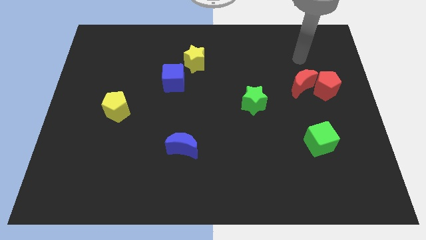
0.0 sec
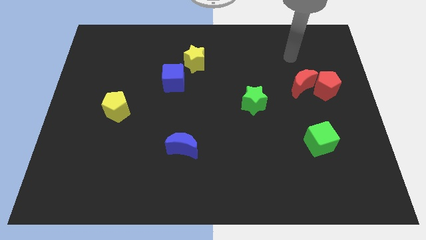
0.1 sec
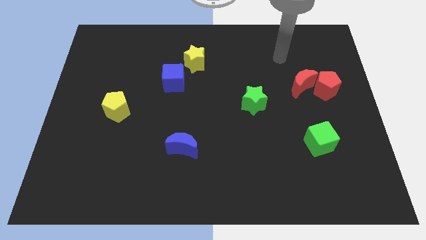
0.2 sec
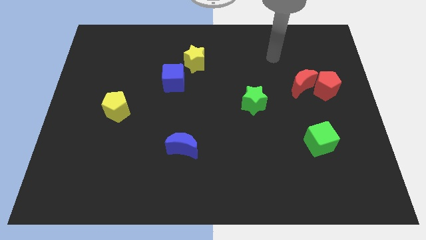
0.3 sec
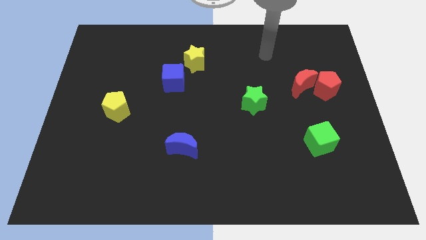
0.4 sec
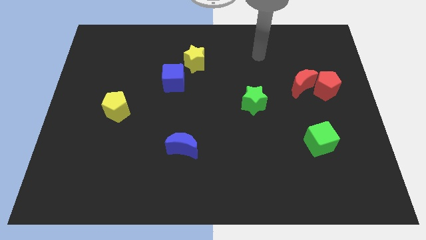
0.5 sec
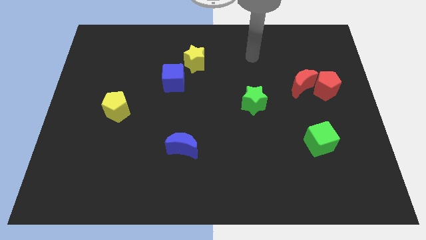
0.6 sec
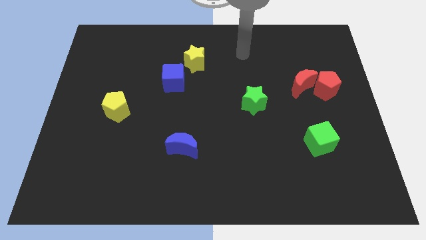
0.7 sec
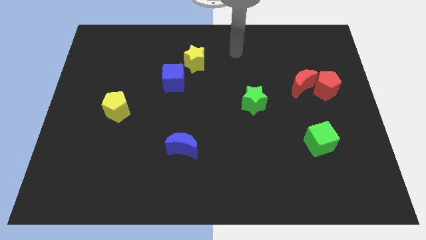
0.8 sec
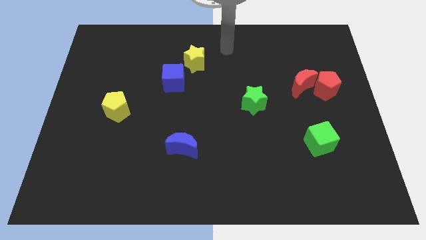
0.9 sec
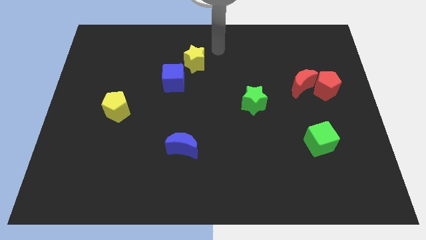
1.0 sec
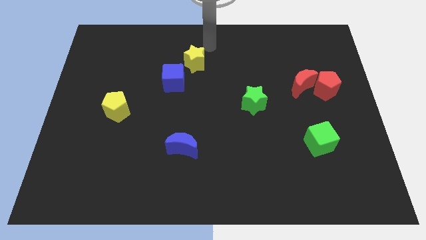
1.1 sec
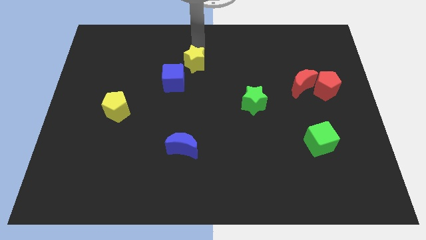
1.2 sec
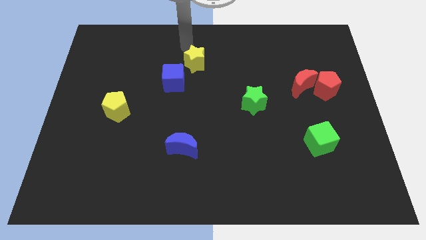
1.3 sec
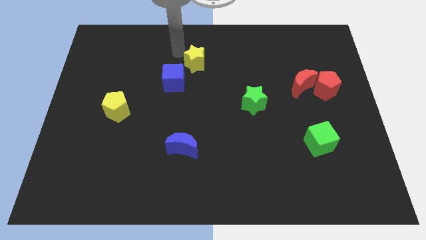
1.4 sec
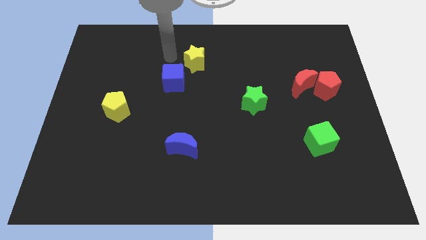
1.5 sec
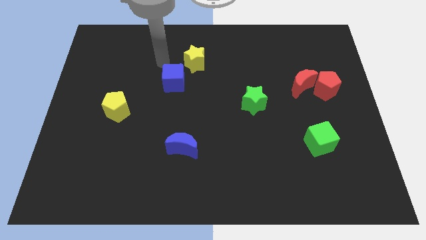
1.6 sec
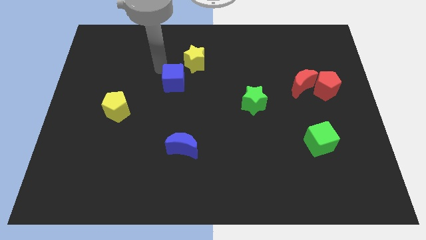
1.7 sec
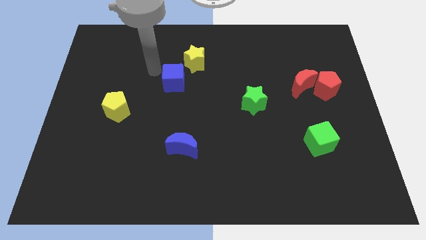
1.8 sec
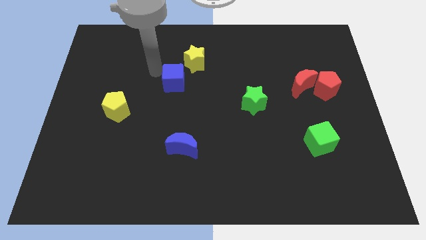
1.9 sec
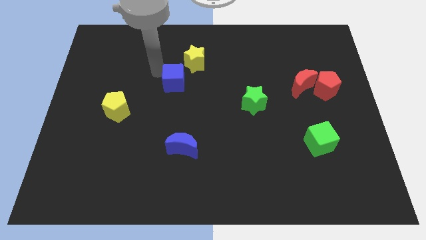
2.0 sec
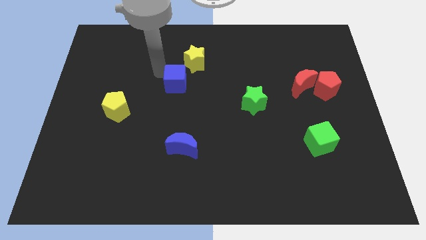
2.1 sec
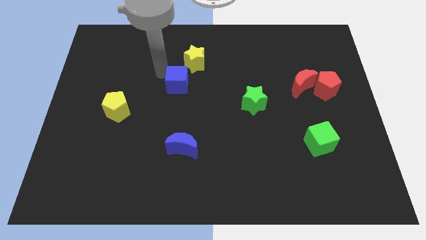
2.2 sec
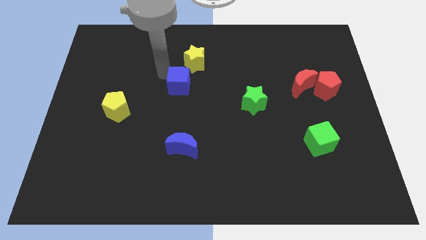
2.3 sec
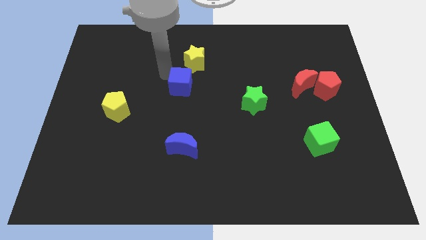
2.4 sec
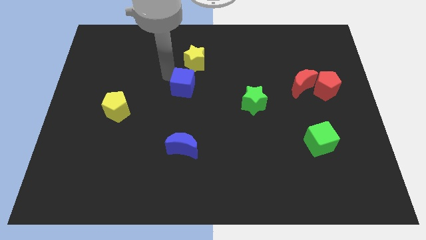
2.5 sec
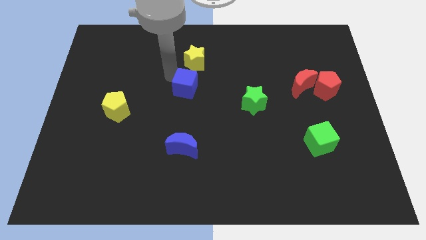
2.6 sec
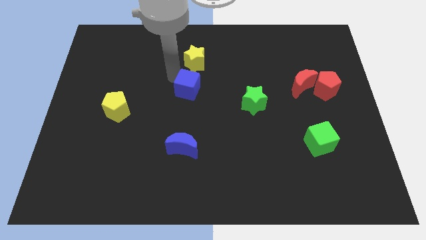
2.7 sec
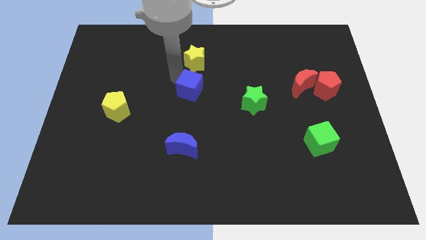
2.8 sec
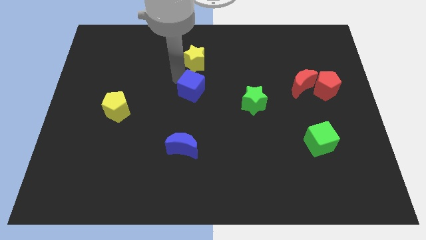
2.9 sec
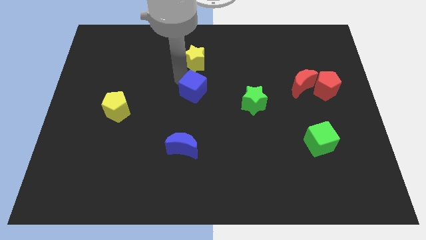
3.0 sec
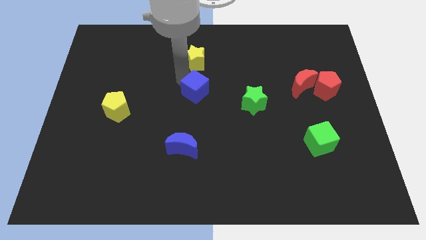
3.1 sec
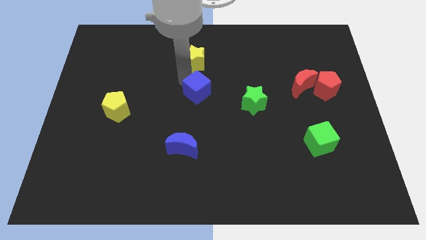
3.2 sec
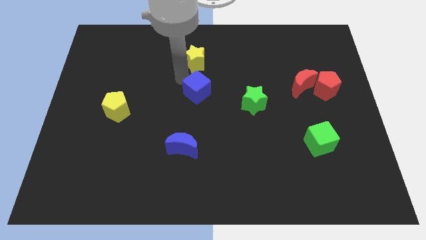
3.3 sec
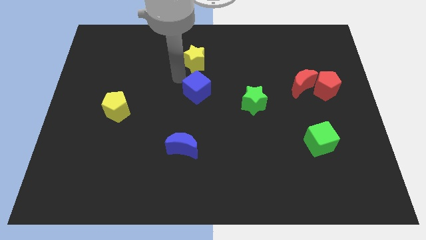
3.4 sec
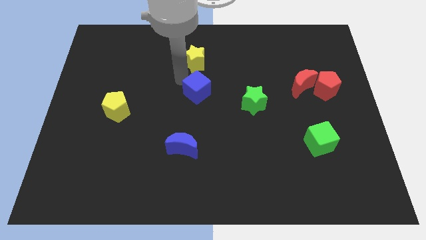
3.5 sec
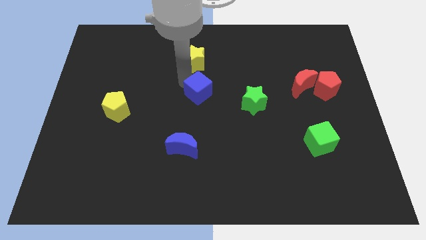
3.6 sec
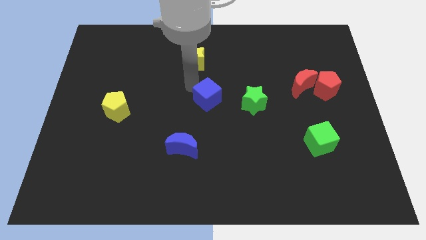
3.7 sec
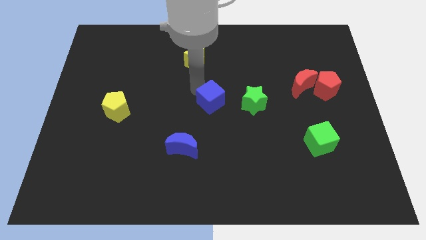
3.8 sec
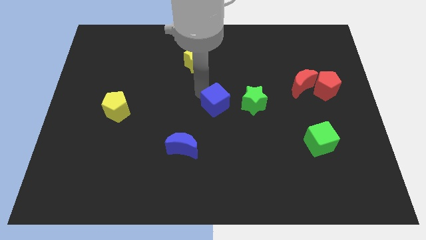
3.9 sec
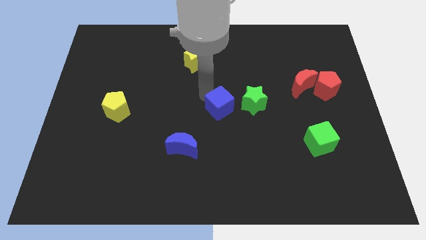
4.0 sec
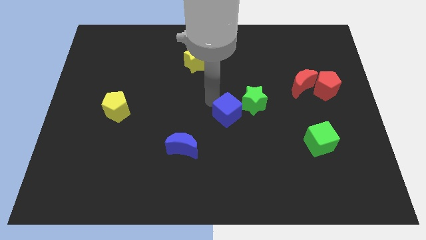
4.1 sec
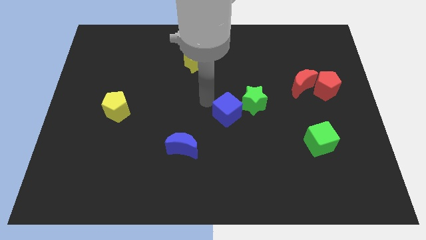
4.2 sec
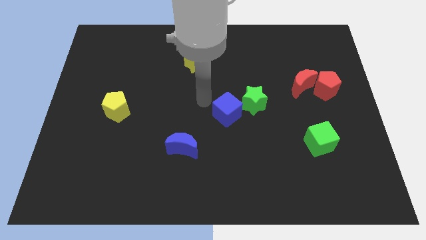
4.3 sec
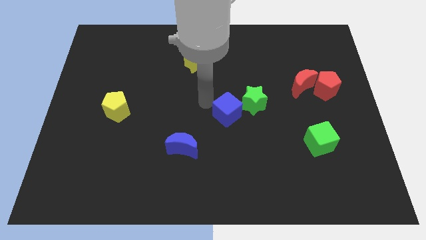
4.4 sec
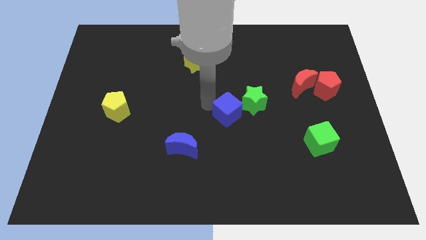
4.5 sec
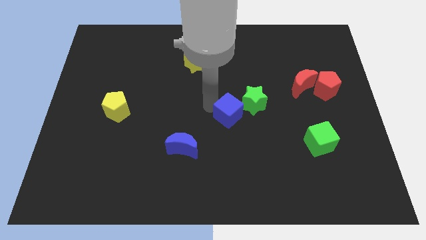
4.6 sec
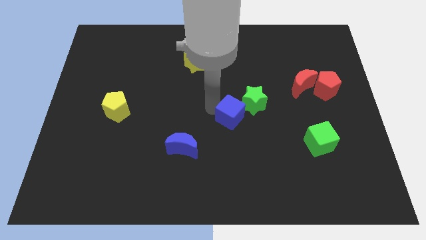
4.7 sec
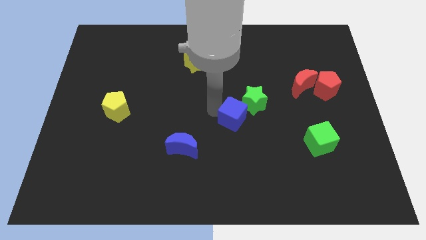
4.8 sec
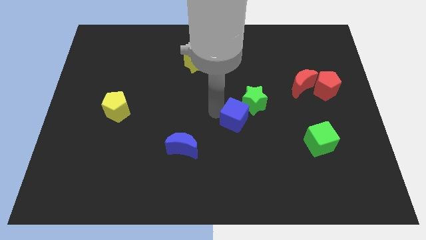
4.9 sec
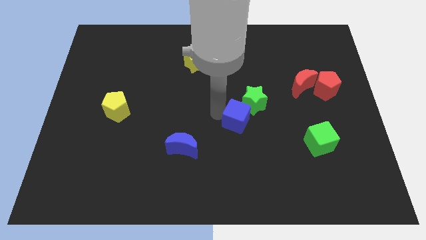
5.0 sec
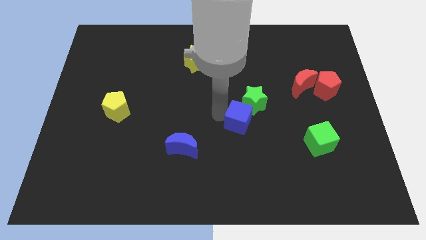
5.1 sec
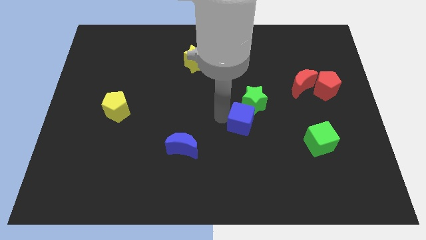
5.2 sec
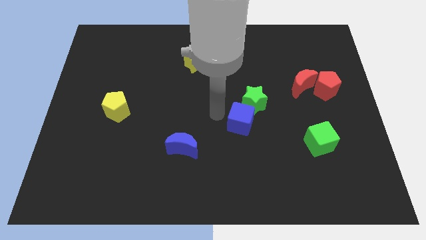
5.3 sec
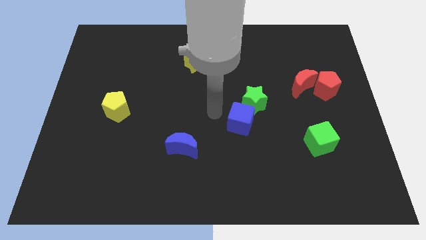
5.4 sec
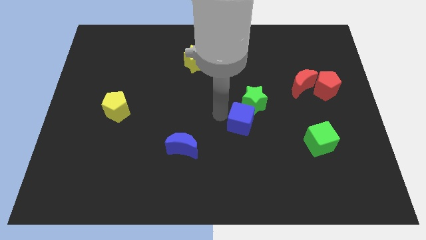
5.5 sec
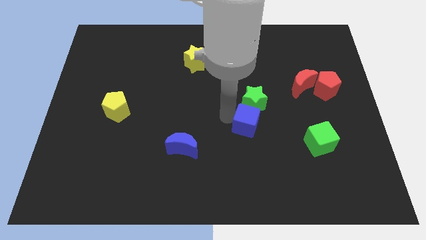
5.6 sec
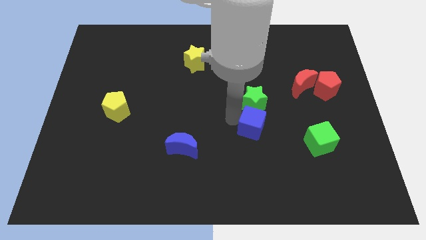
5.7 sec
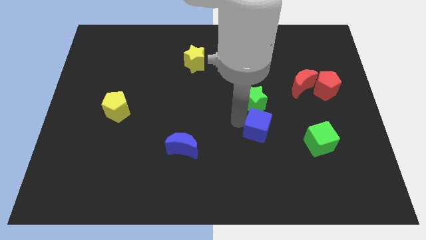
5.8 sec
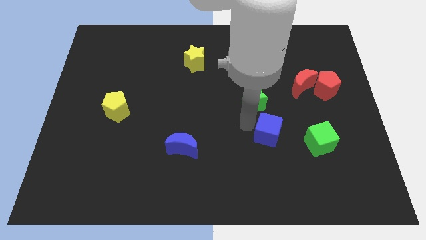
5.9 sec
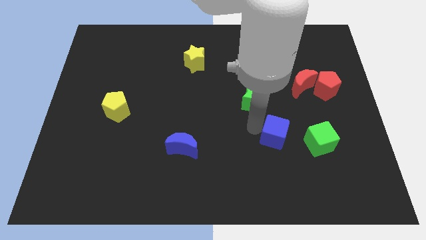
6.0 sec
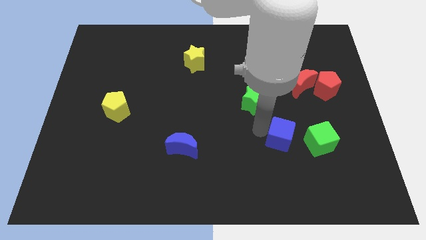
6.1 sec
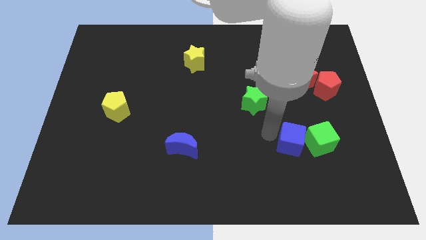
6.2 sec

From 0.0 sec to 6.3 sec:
put the blue cube close to the green cube

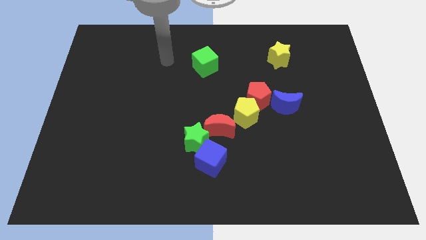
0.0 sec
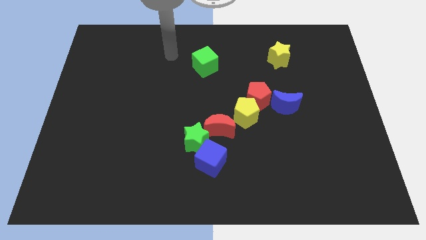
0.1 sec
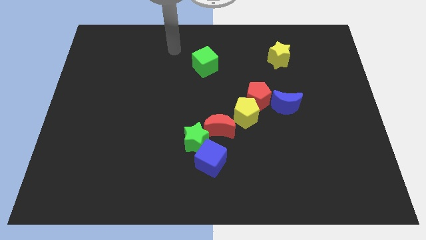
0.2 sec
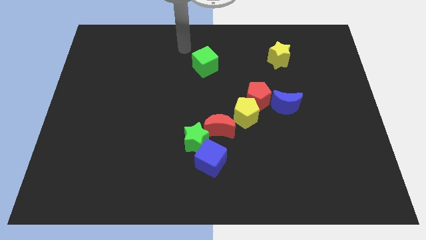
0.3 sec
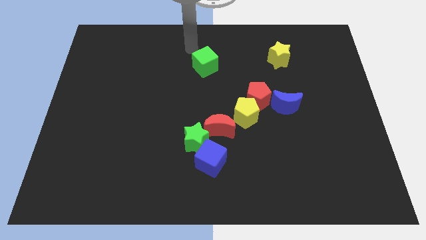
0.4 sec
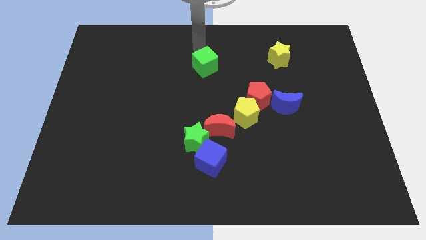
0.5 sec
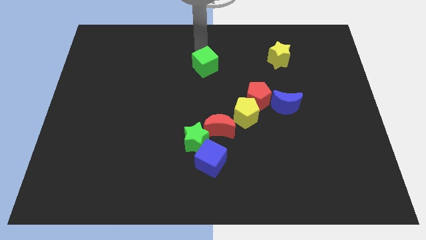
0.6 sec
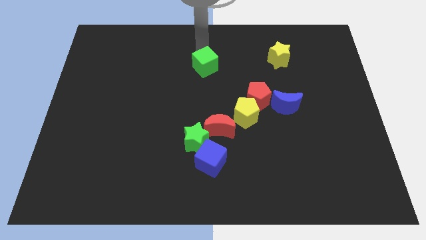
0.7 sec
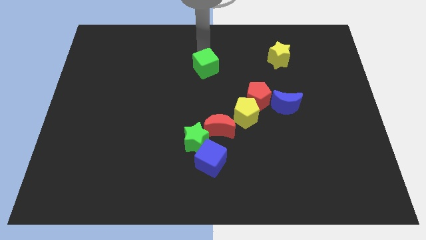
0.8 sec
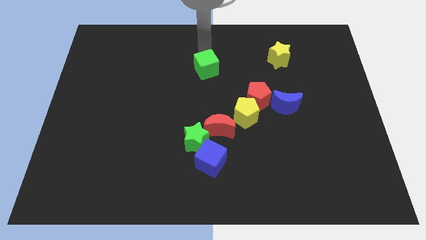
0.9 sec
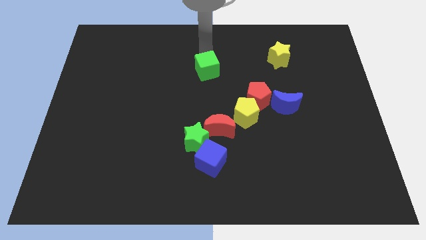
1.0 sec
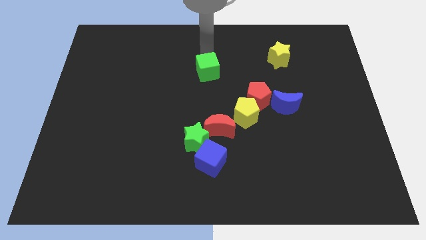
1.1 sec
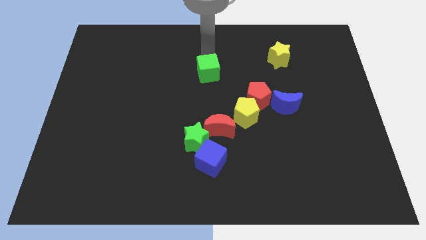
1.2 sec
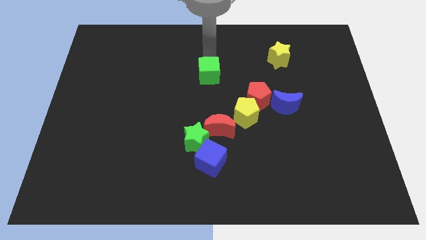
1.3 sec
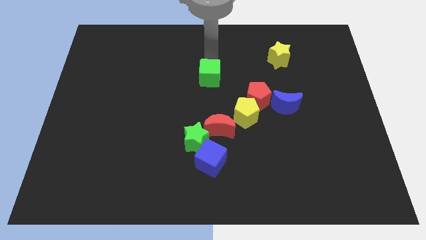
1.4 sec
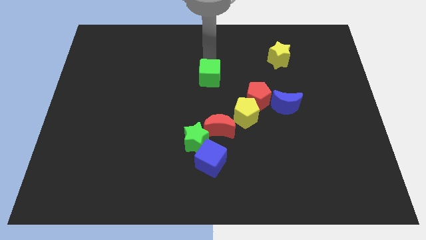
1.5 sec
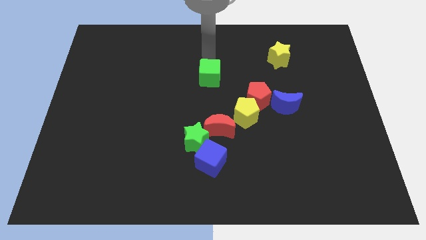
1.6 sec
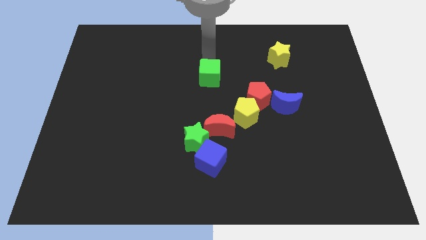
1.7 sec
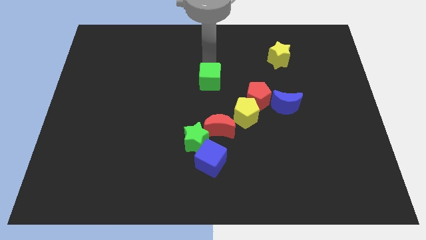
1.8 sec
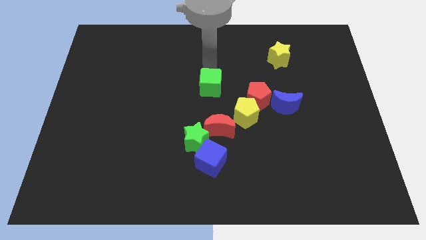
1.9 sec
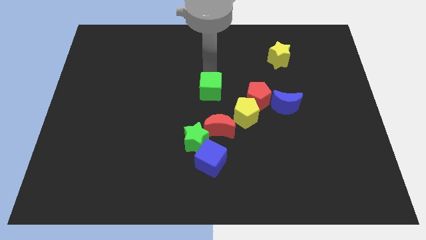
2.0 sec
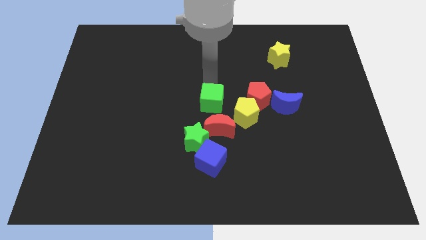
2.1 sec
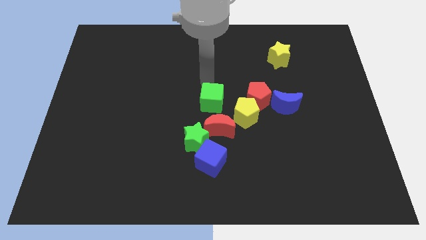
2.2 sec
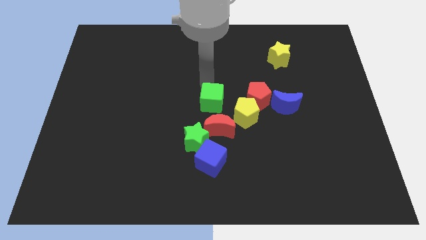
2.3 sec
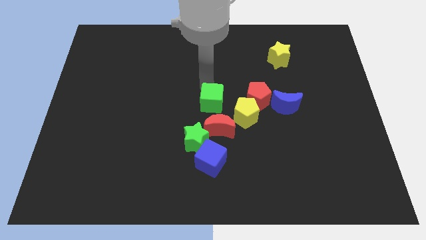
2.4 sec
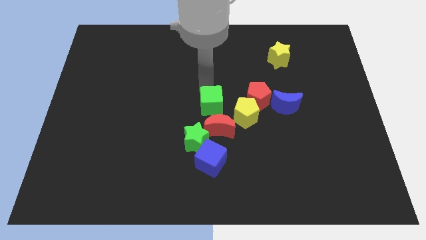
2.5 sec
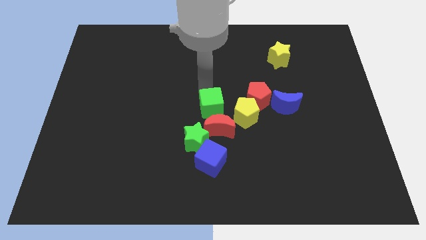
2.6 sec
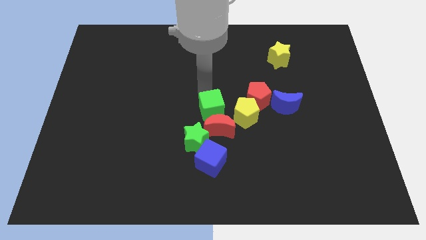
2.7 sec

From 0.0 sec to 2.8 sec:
put the green cube close to the red moon
